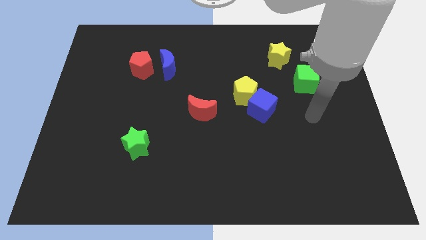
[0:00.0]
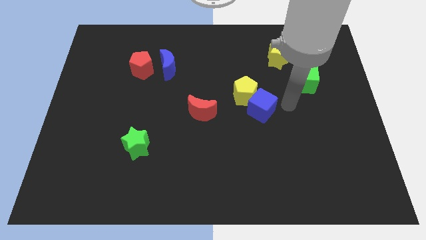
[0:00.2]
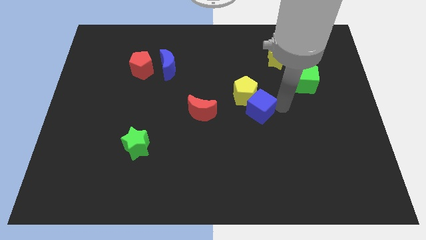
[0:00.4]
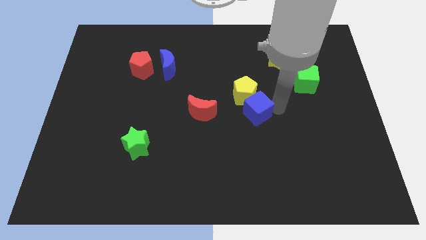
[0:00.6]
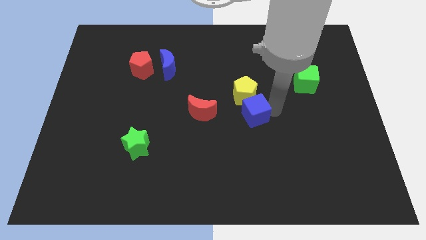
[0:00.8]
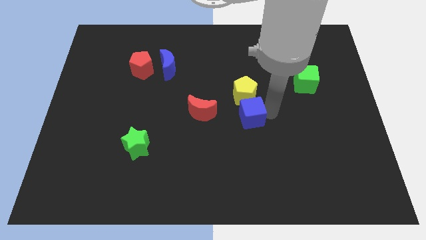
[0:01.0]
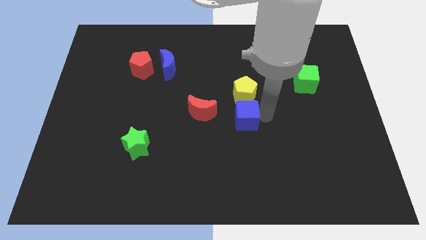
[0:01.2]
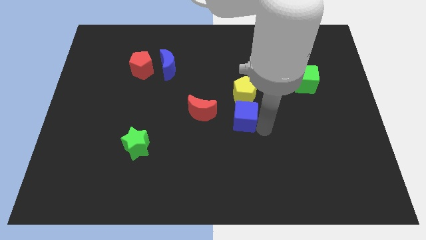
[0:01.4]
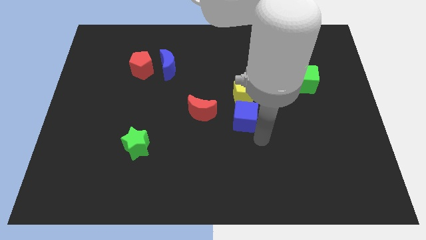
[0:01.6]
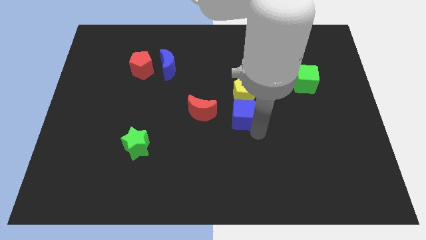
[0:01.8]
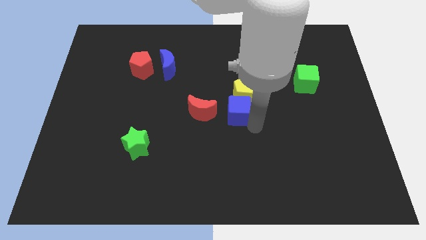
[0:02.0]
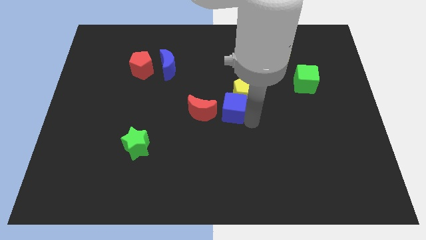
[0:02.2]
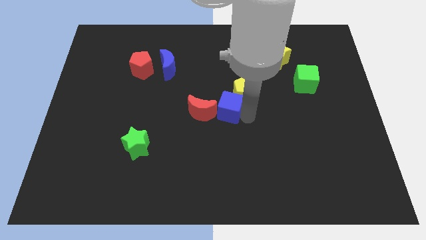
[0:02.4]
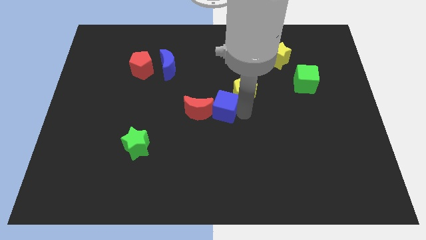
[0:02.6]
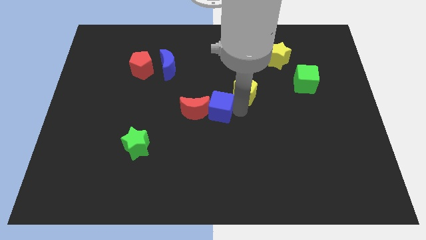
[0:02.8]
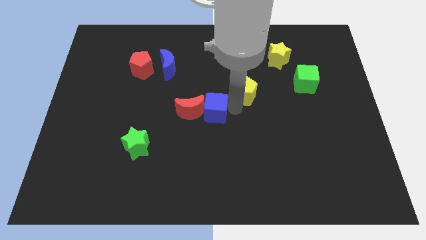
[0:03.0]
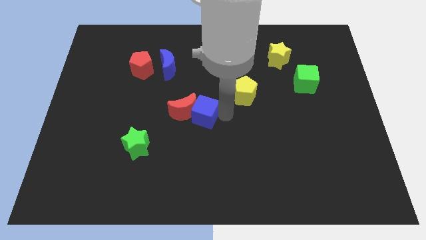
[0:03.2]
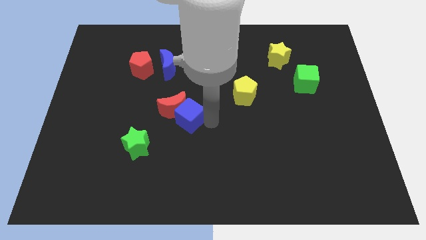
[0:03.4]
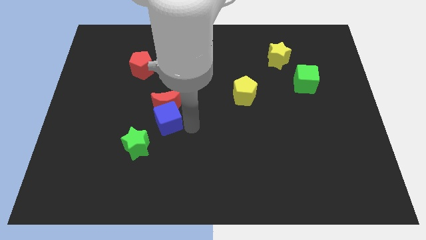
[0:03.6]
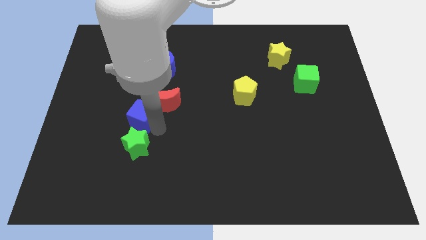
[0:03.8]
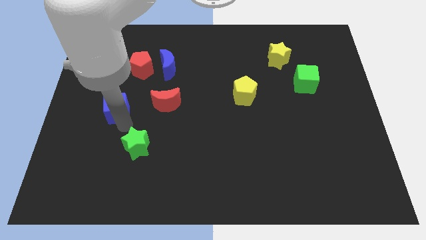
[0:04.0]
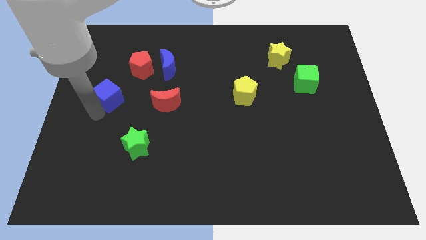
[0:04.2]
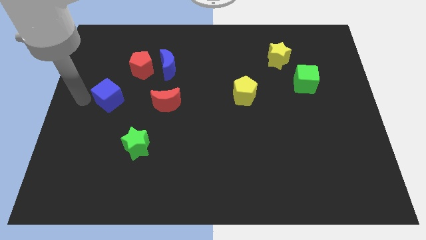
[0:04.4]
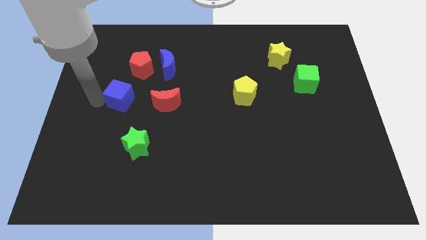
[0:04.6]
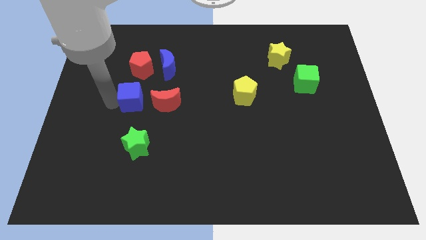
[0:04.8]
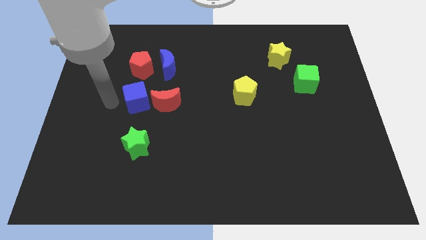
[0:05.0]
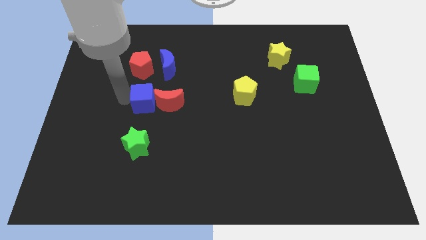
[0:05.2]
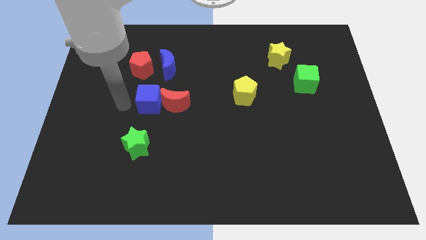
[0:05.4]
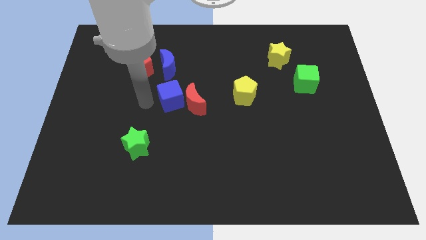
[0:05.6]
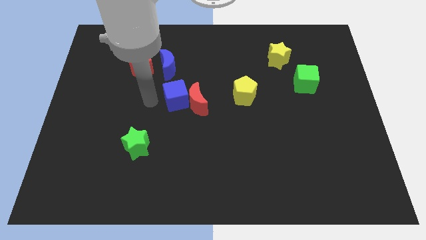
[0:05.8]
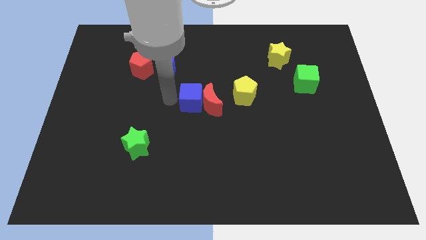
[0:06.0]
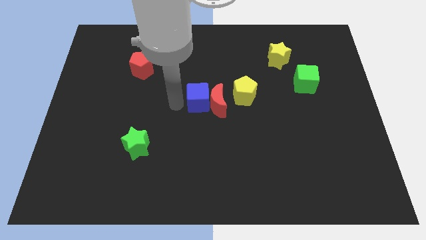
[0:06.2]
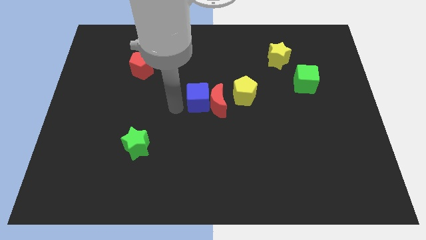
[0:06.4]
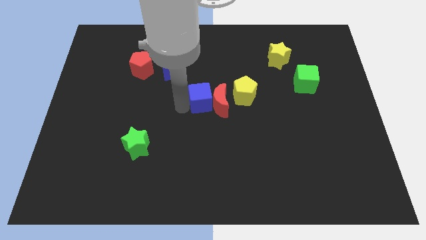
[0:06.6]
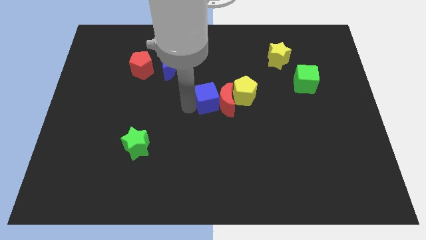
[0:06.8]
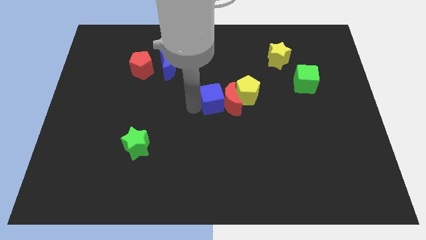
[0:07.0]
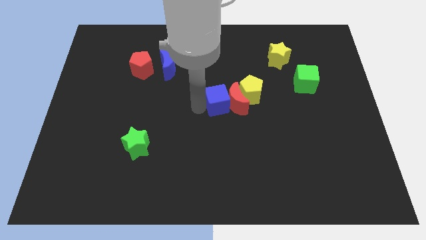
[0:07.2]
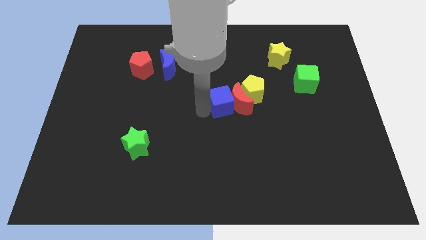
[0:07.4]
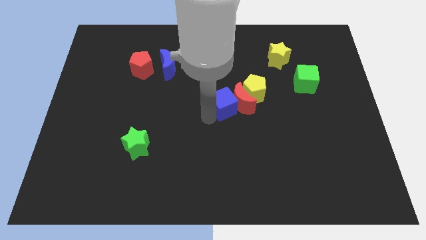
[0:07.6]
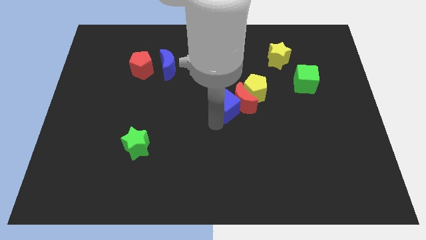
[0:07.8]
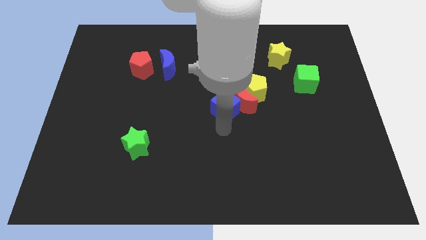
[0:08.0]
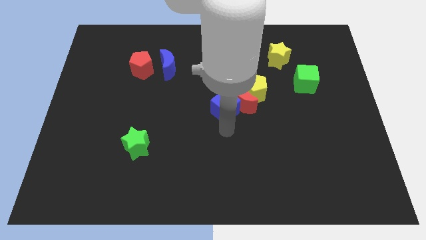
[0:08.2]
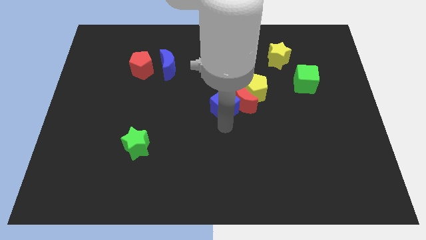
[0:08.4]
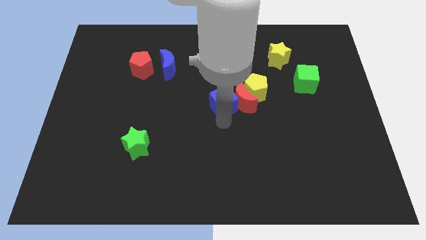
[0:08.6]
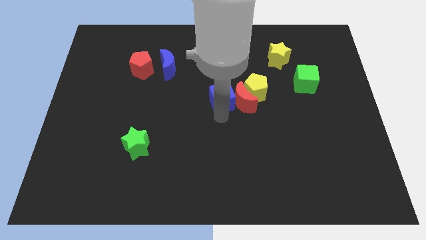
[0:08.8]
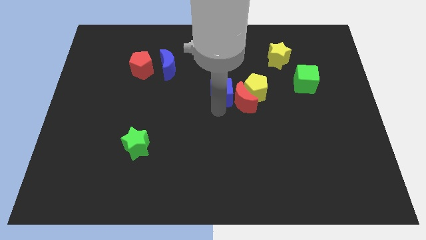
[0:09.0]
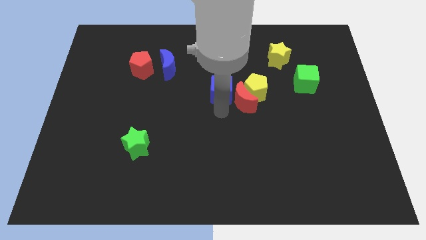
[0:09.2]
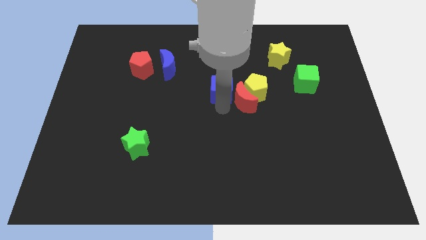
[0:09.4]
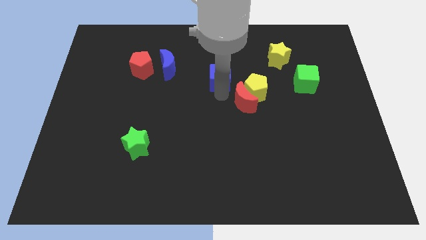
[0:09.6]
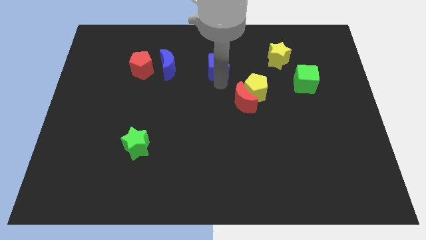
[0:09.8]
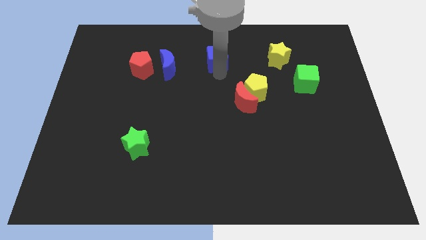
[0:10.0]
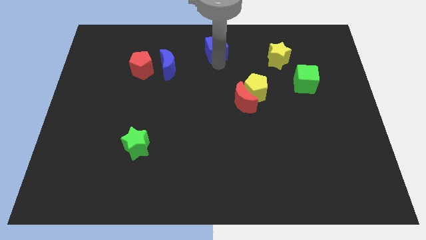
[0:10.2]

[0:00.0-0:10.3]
slide the blue cube to the towards your base
